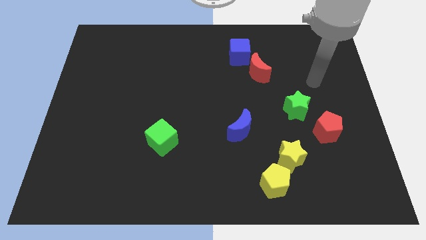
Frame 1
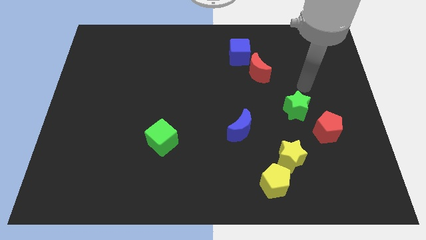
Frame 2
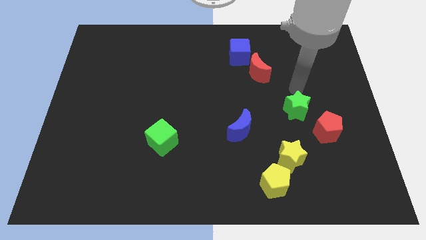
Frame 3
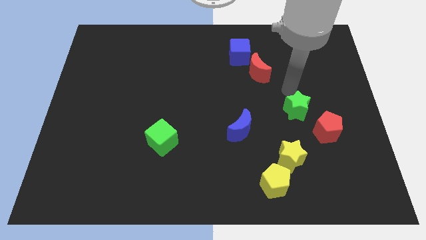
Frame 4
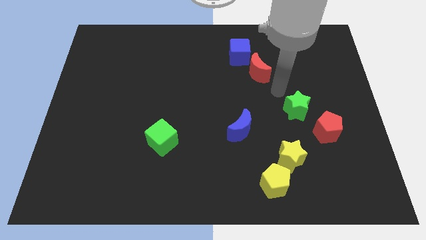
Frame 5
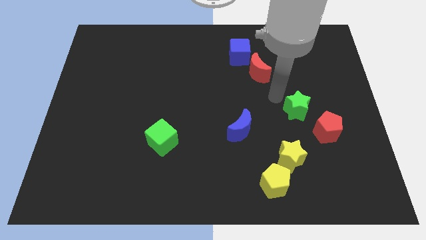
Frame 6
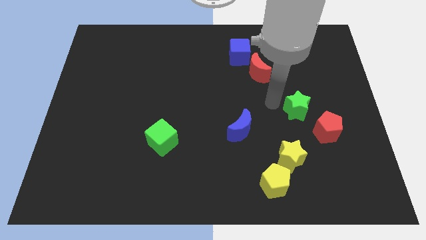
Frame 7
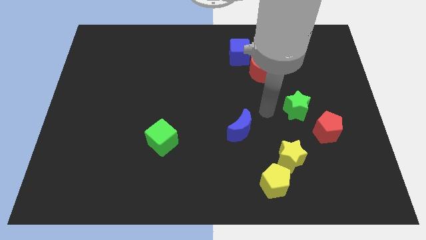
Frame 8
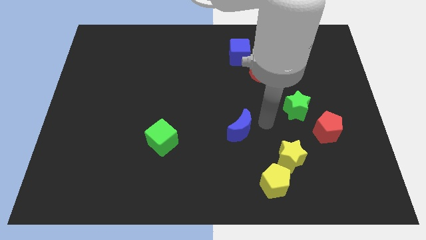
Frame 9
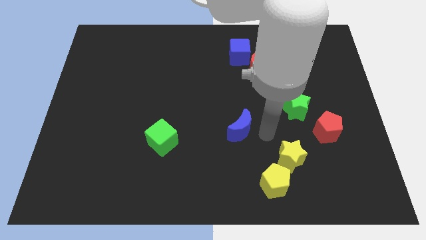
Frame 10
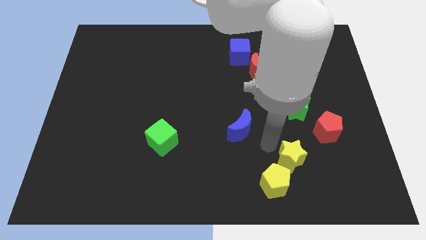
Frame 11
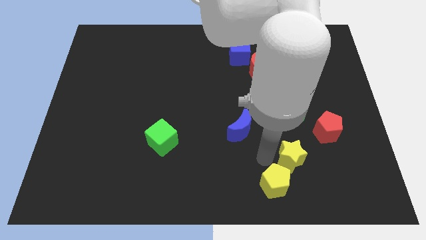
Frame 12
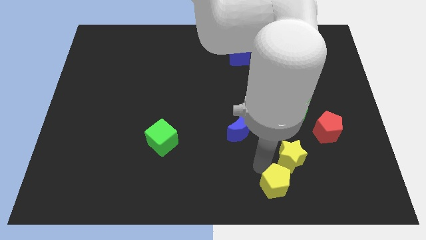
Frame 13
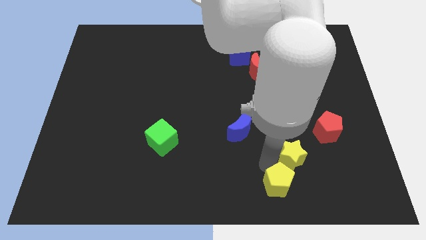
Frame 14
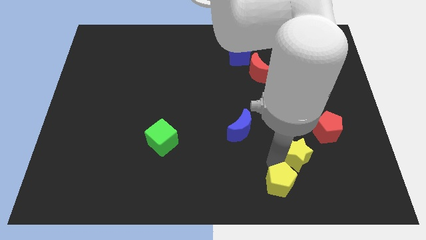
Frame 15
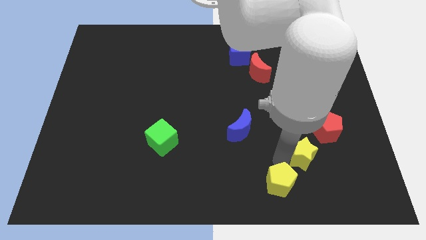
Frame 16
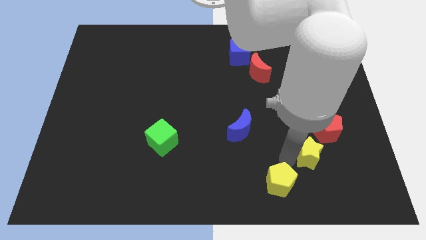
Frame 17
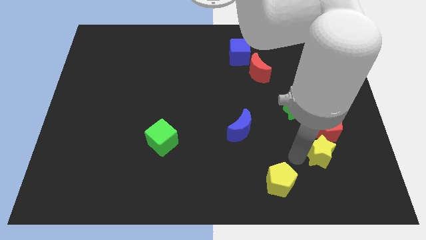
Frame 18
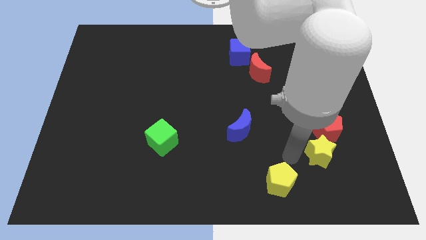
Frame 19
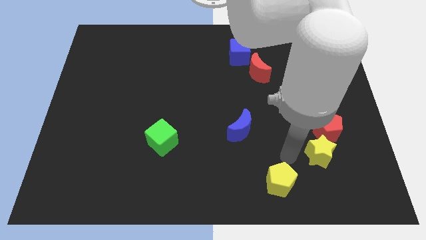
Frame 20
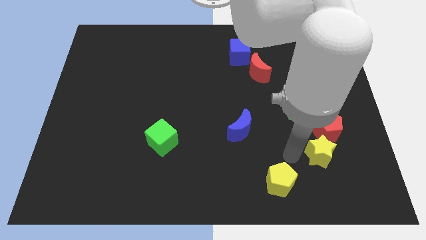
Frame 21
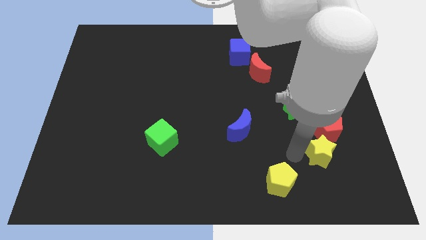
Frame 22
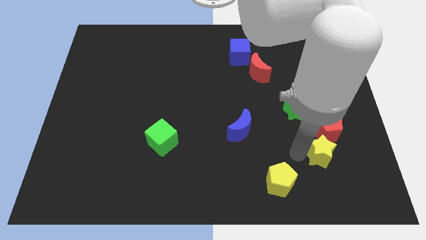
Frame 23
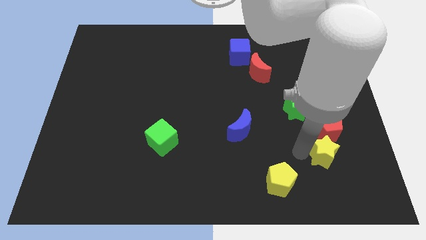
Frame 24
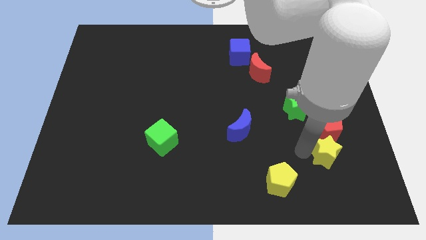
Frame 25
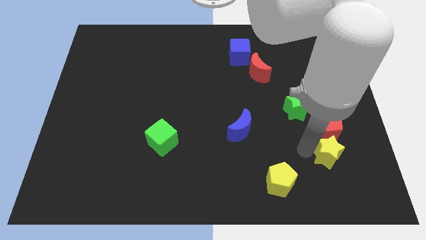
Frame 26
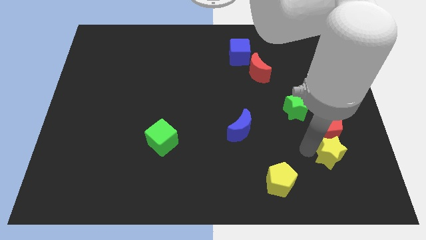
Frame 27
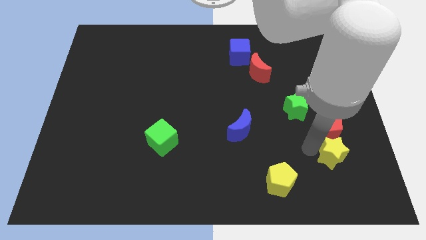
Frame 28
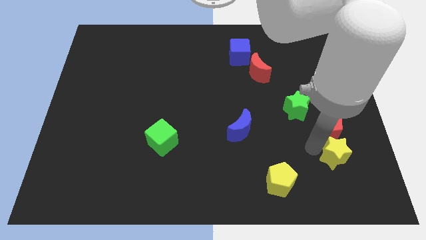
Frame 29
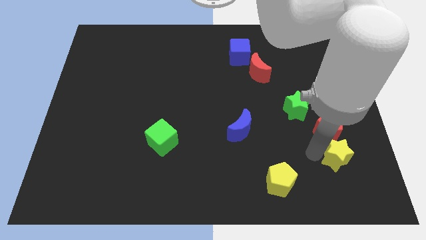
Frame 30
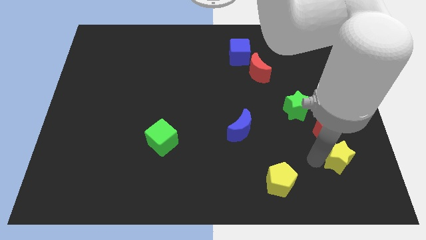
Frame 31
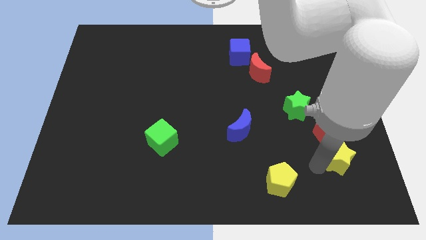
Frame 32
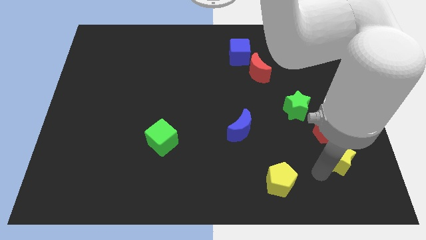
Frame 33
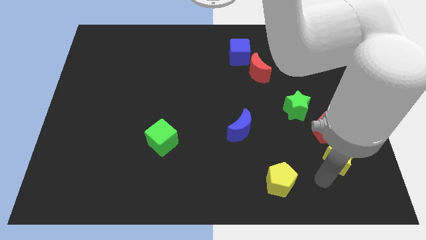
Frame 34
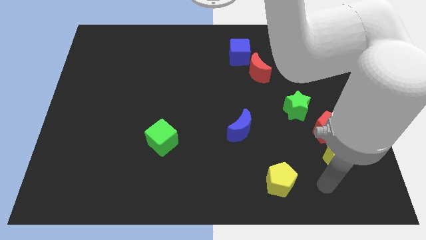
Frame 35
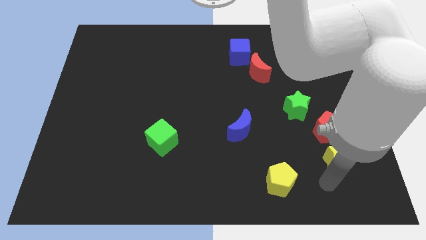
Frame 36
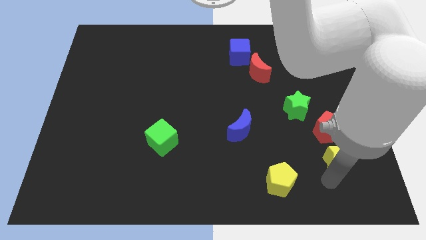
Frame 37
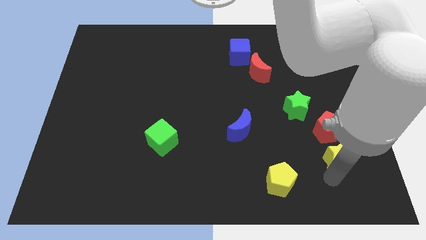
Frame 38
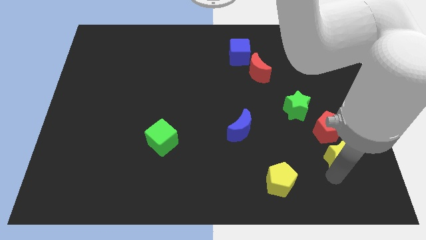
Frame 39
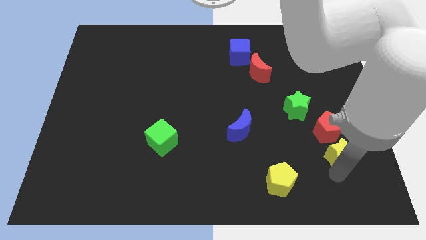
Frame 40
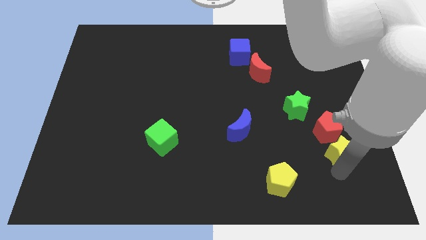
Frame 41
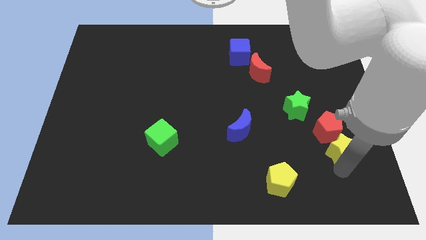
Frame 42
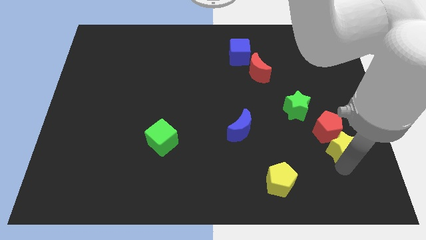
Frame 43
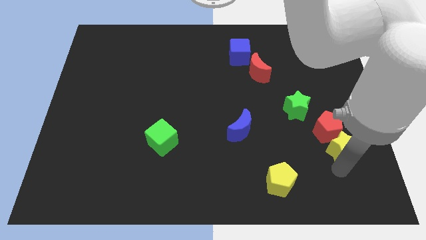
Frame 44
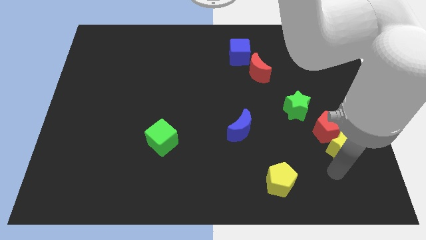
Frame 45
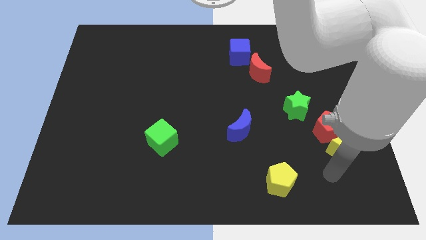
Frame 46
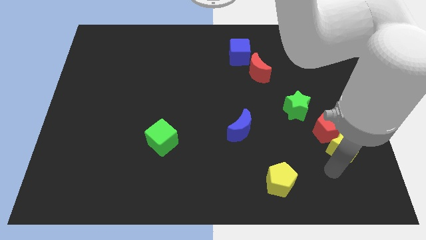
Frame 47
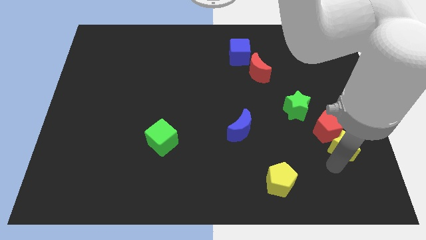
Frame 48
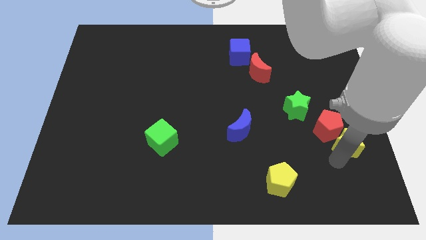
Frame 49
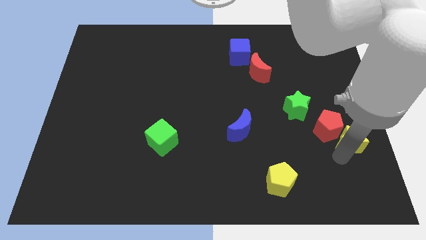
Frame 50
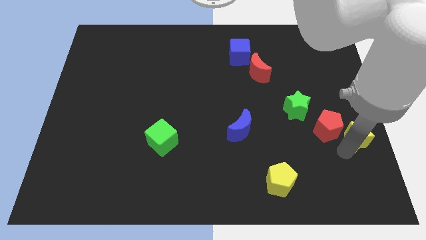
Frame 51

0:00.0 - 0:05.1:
slide the yellow star to the center right

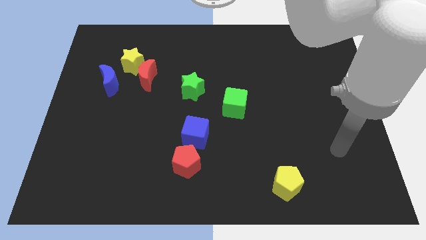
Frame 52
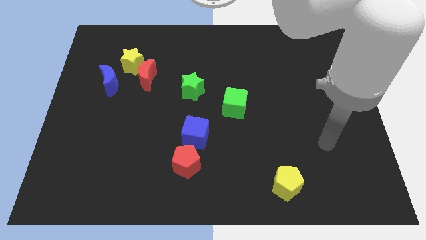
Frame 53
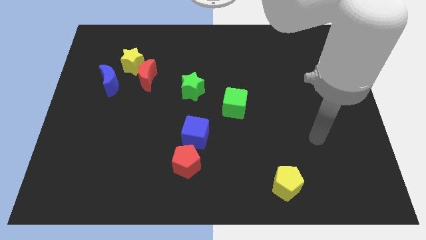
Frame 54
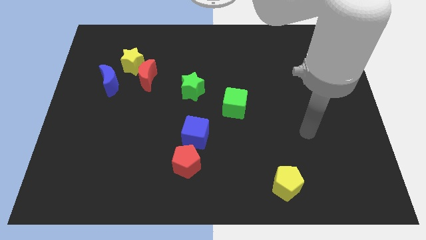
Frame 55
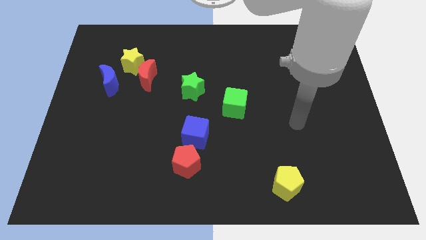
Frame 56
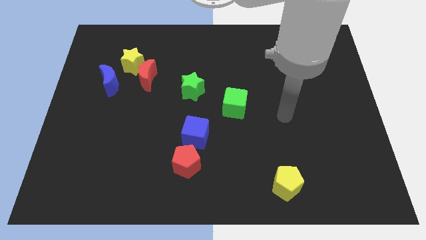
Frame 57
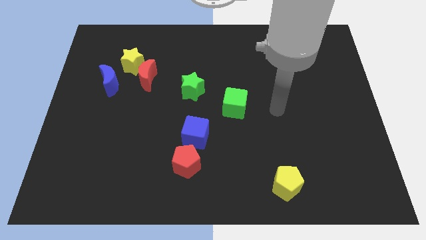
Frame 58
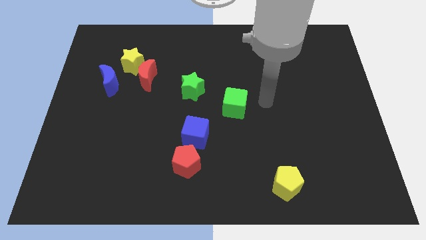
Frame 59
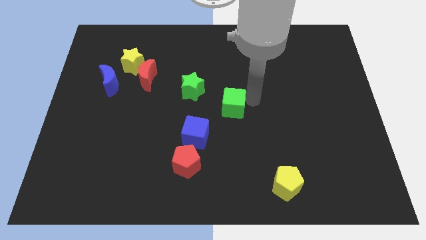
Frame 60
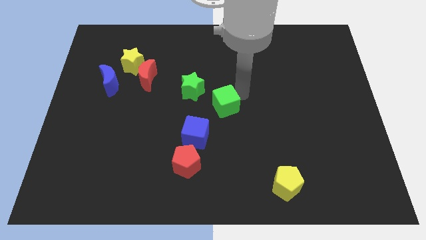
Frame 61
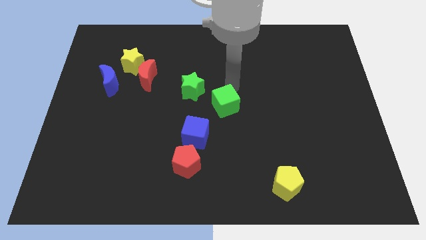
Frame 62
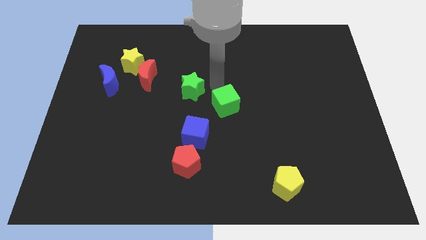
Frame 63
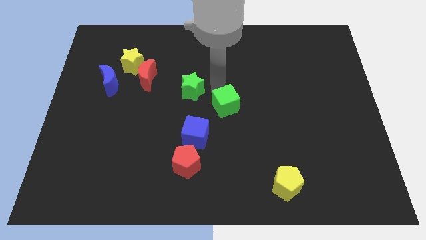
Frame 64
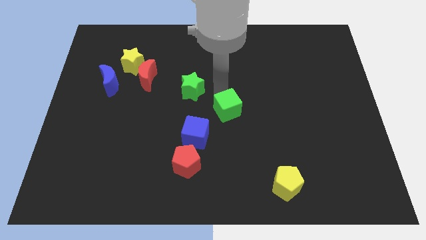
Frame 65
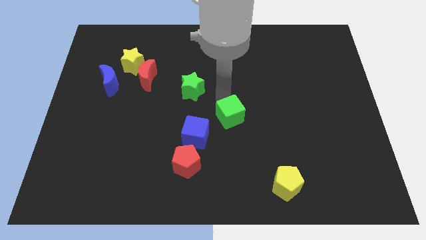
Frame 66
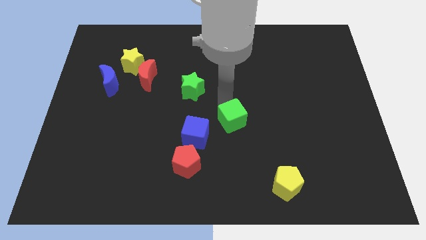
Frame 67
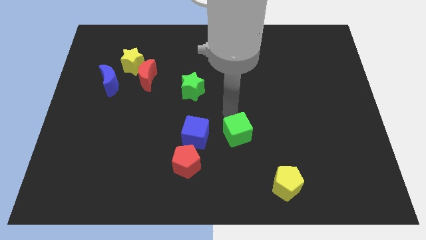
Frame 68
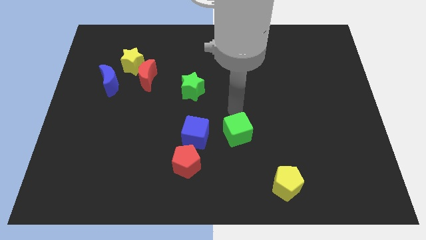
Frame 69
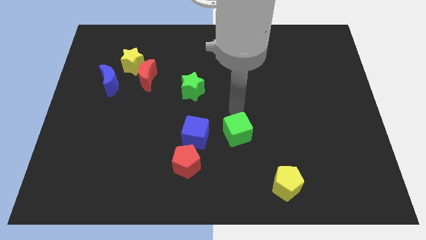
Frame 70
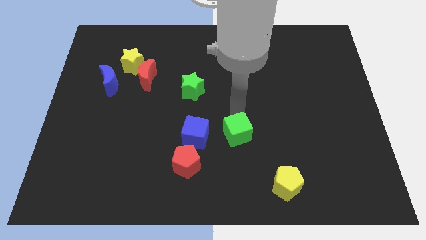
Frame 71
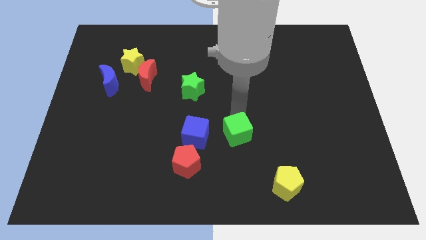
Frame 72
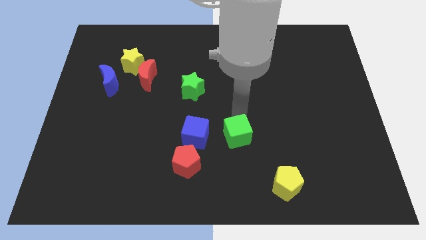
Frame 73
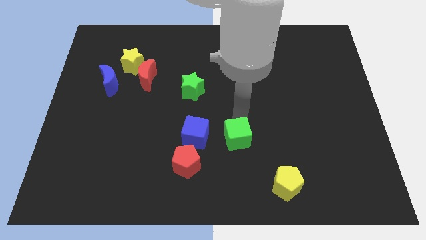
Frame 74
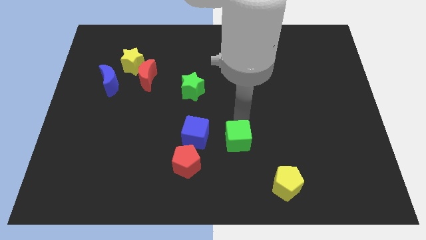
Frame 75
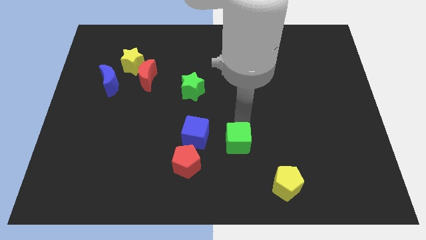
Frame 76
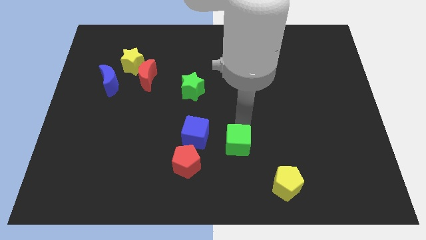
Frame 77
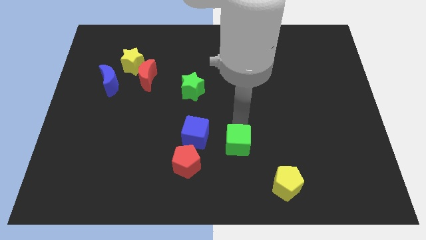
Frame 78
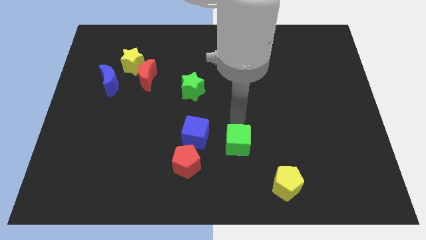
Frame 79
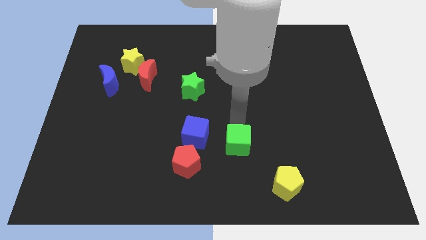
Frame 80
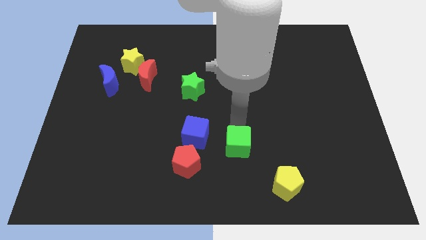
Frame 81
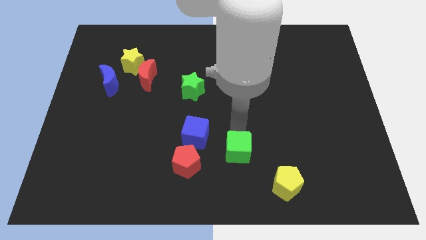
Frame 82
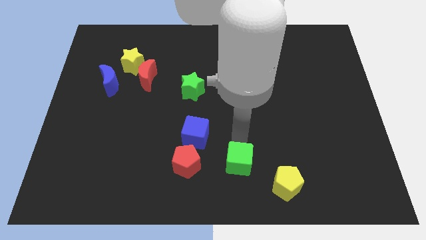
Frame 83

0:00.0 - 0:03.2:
move the green cube to the bottom side

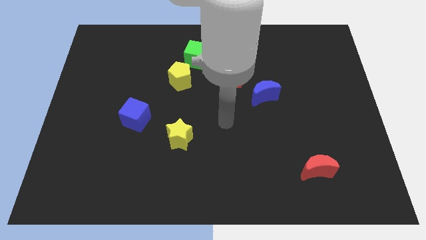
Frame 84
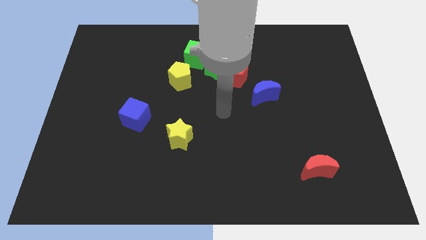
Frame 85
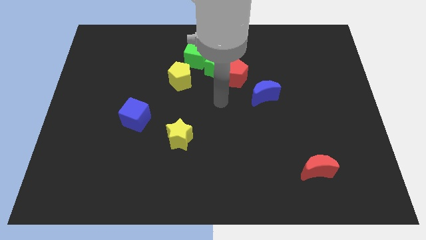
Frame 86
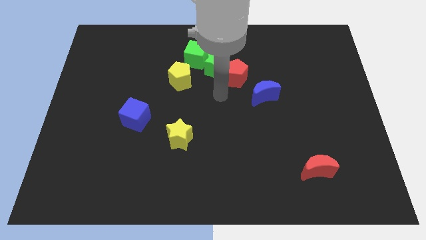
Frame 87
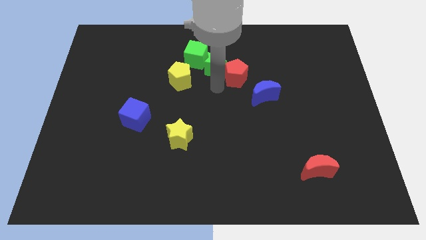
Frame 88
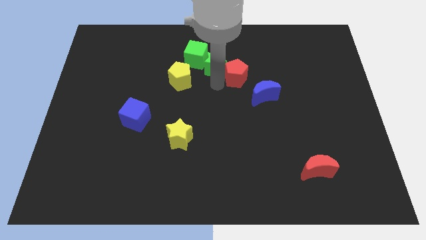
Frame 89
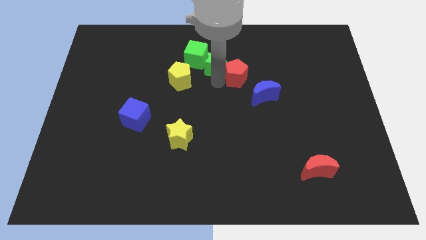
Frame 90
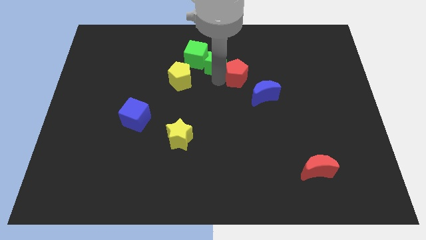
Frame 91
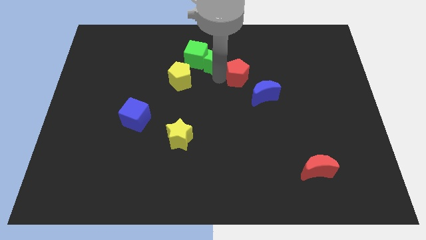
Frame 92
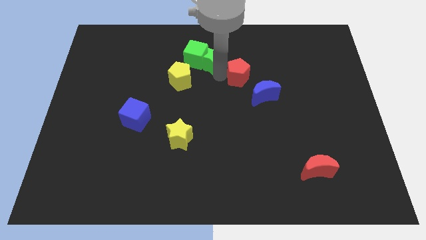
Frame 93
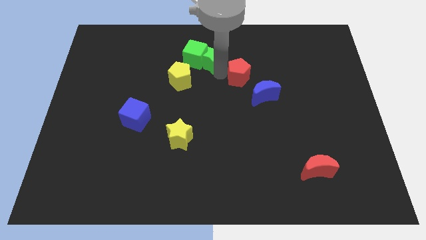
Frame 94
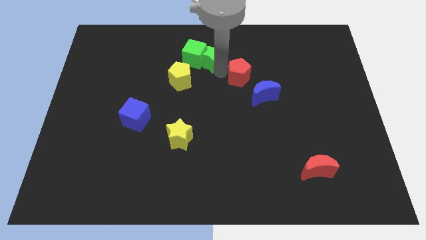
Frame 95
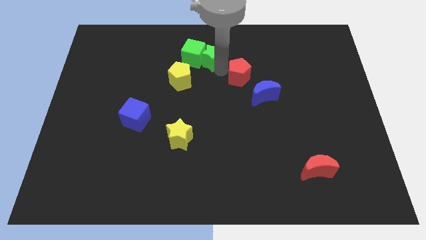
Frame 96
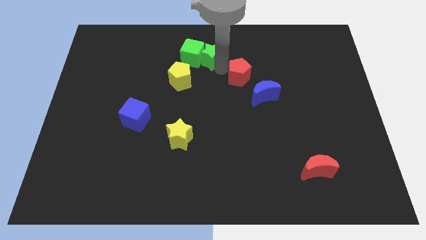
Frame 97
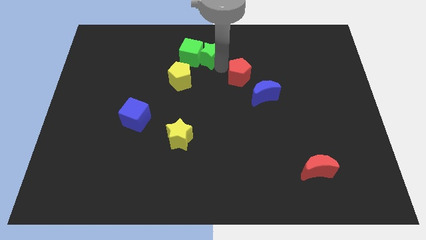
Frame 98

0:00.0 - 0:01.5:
slide the green star to the top side
